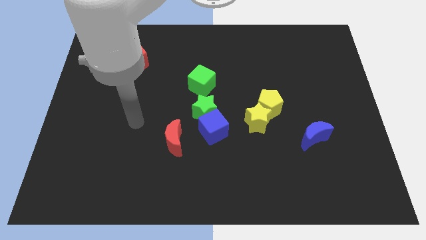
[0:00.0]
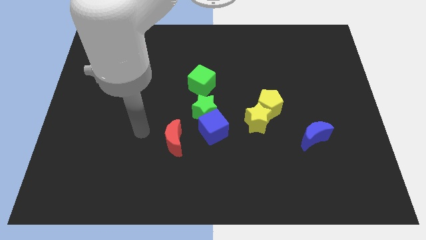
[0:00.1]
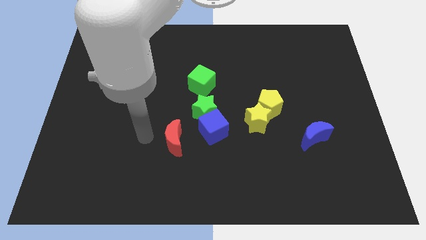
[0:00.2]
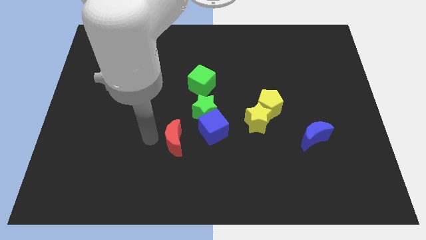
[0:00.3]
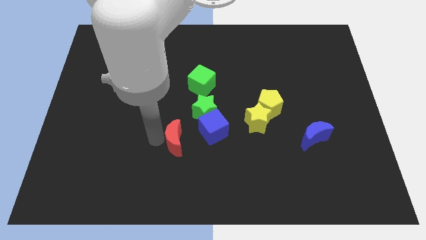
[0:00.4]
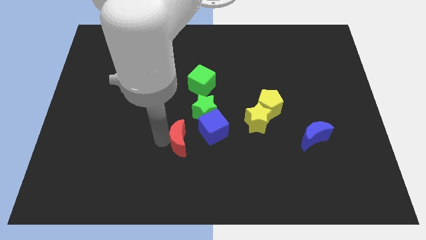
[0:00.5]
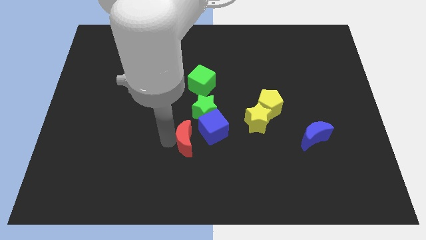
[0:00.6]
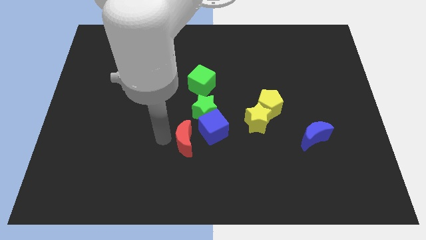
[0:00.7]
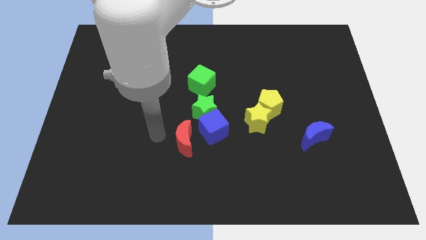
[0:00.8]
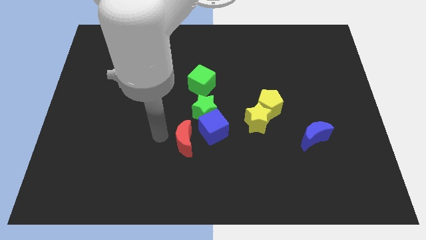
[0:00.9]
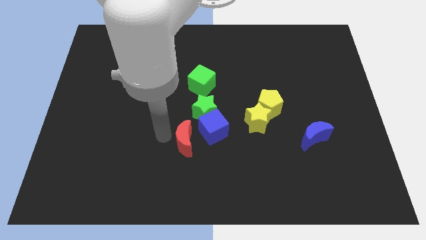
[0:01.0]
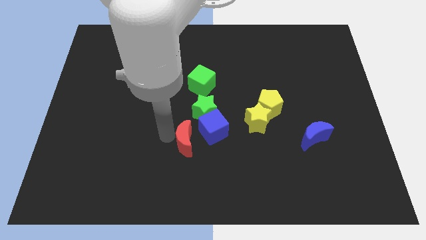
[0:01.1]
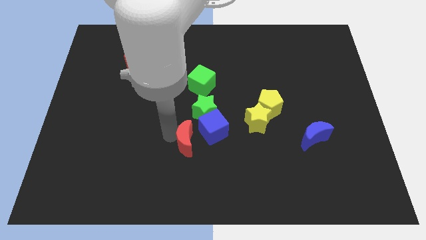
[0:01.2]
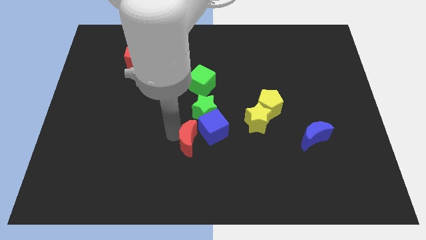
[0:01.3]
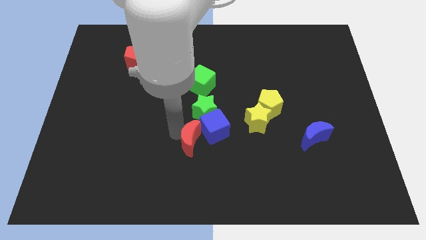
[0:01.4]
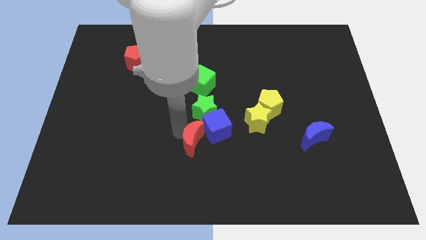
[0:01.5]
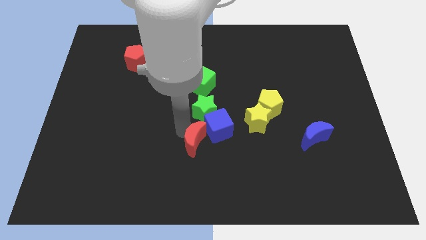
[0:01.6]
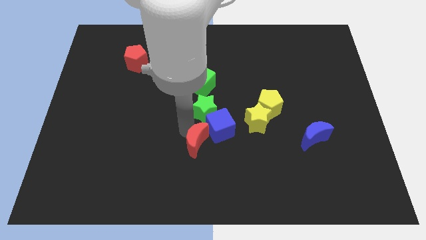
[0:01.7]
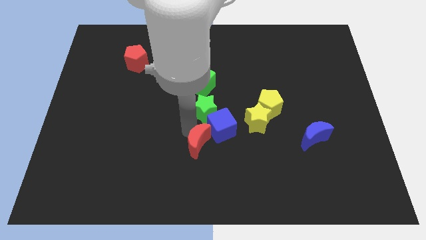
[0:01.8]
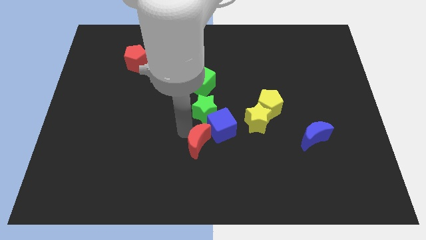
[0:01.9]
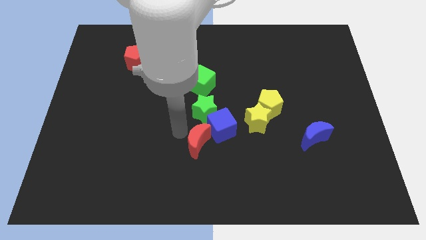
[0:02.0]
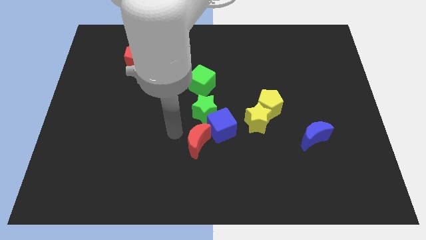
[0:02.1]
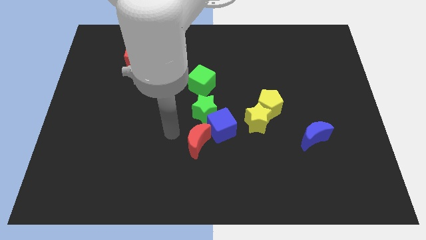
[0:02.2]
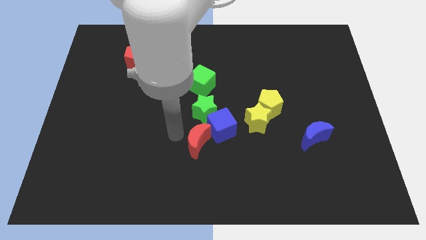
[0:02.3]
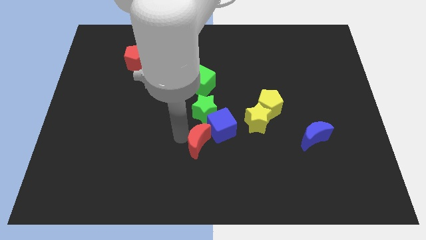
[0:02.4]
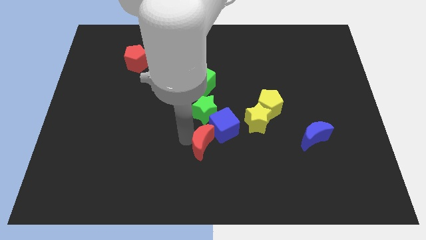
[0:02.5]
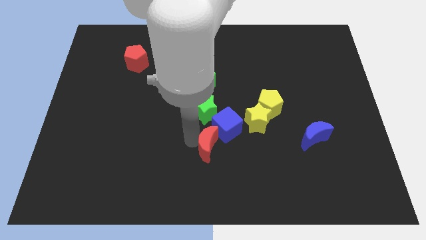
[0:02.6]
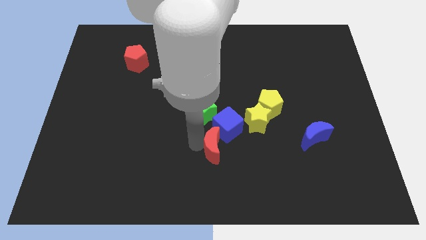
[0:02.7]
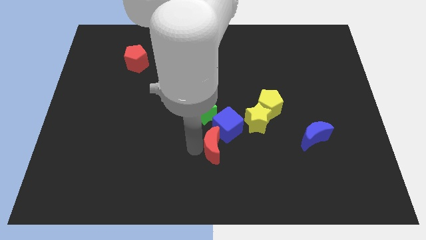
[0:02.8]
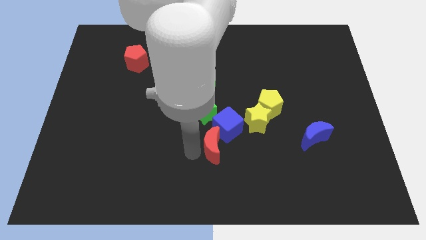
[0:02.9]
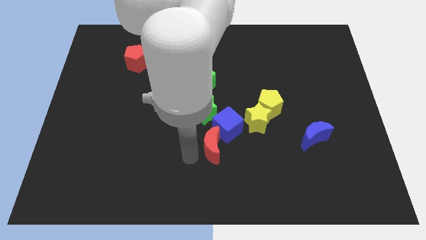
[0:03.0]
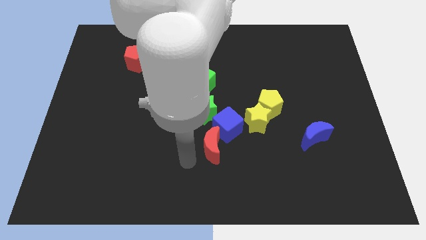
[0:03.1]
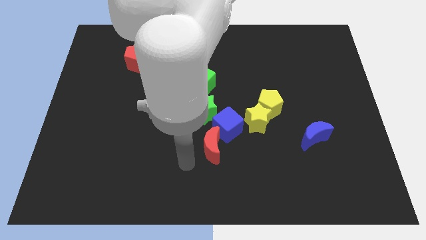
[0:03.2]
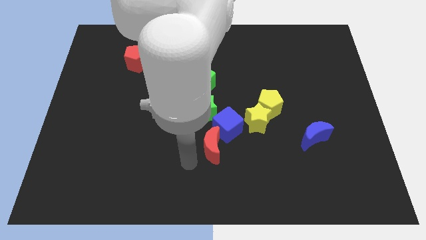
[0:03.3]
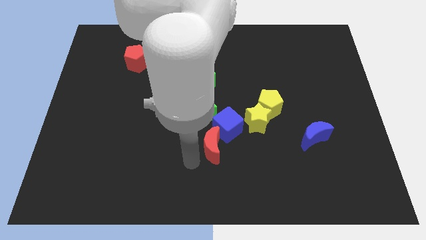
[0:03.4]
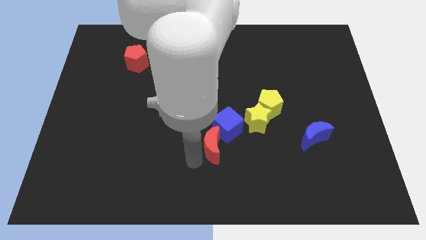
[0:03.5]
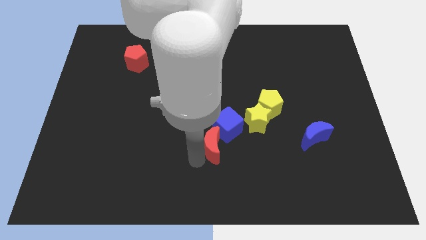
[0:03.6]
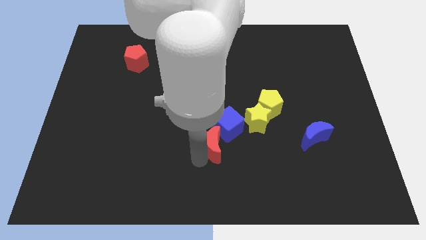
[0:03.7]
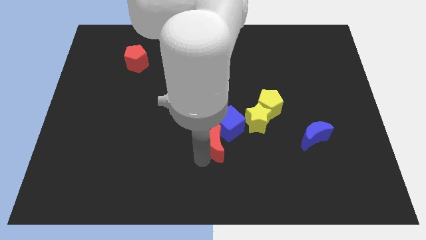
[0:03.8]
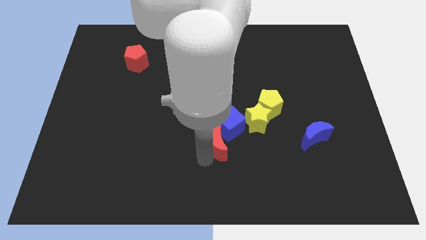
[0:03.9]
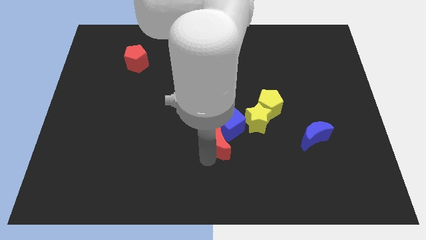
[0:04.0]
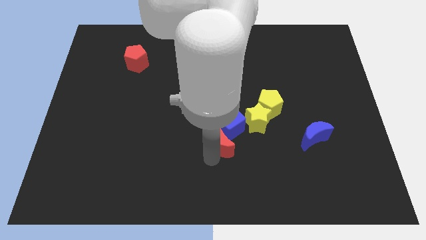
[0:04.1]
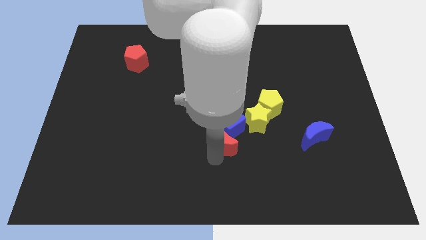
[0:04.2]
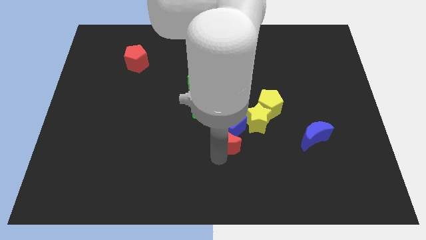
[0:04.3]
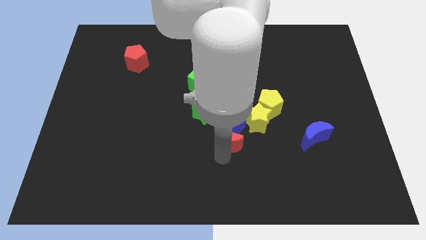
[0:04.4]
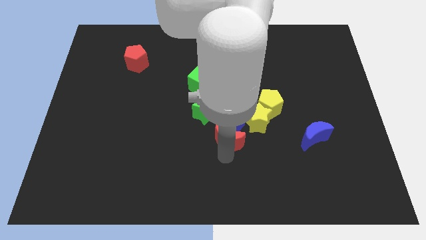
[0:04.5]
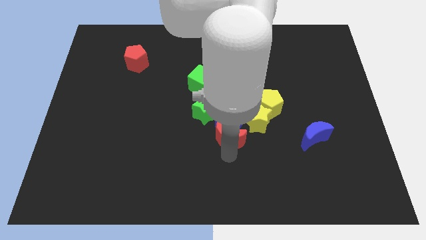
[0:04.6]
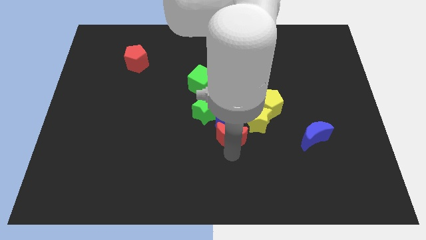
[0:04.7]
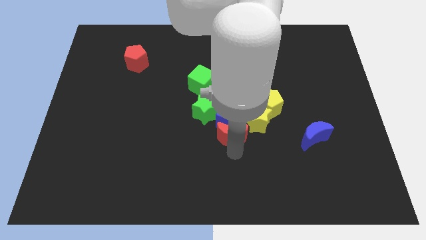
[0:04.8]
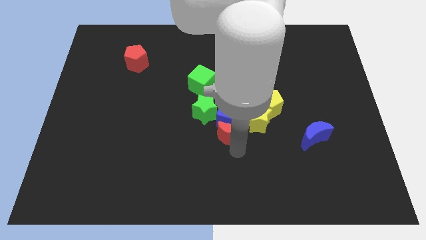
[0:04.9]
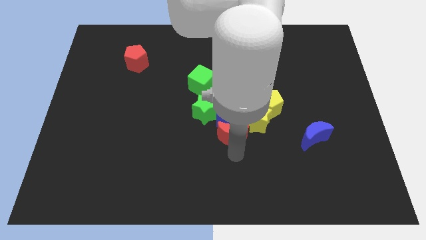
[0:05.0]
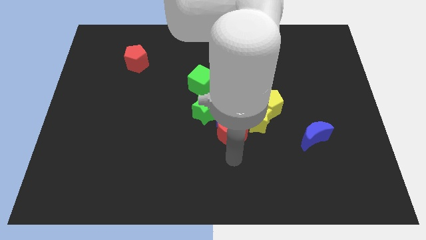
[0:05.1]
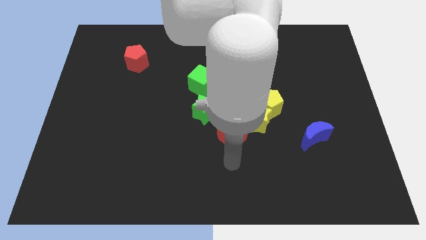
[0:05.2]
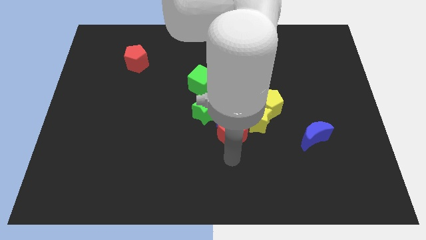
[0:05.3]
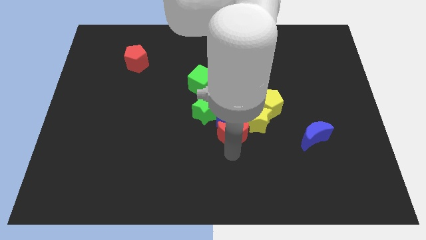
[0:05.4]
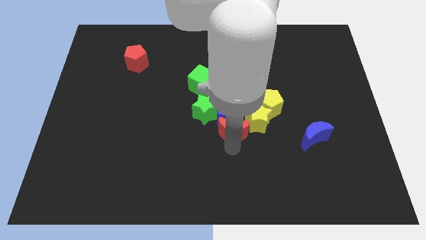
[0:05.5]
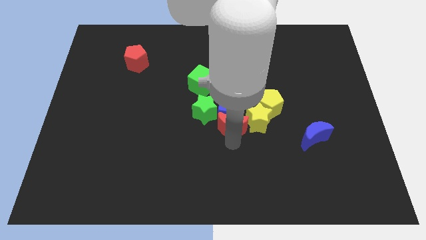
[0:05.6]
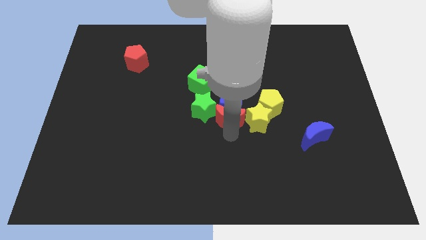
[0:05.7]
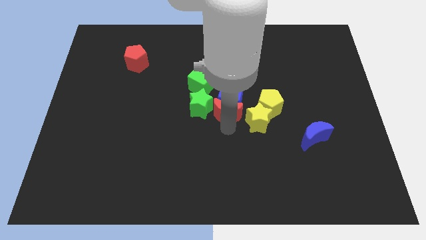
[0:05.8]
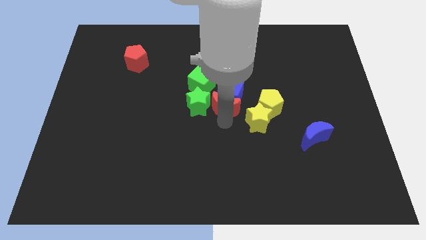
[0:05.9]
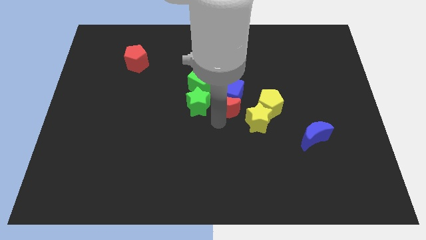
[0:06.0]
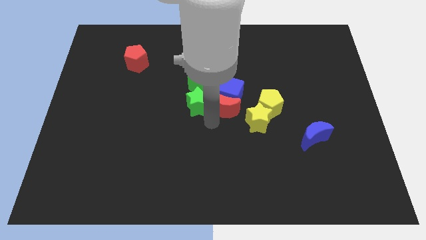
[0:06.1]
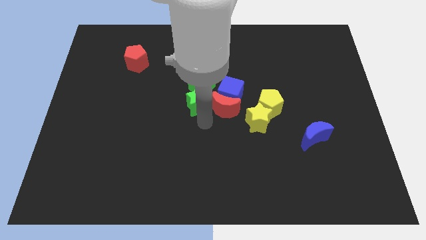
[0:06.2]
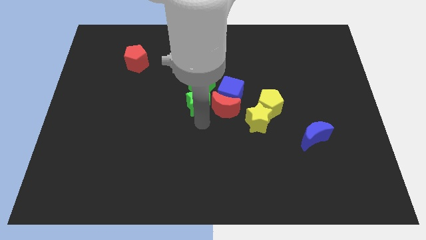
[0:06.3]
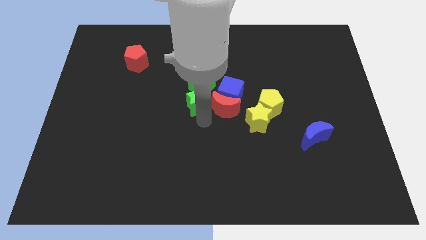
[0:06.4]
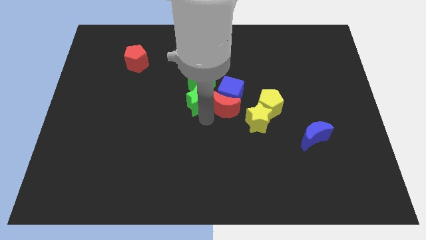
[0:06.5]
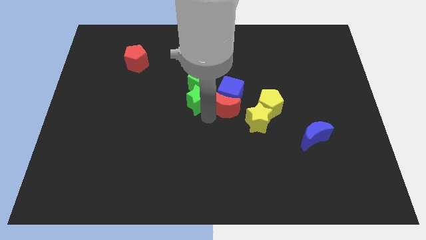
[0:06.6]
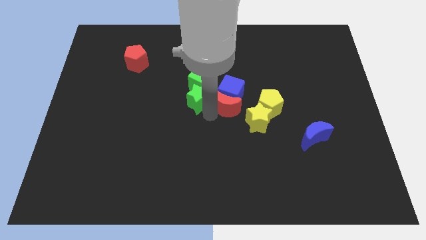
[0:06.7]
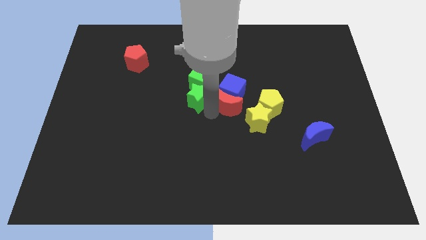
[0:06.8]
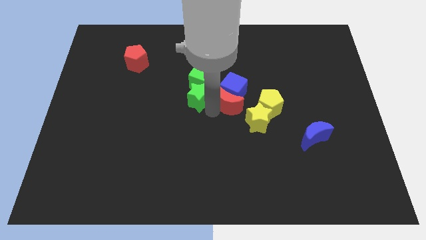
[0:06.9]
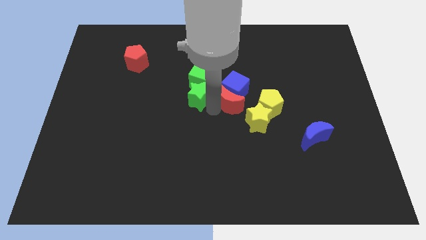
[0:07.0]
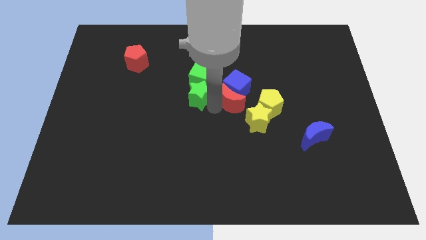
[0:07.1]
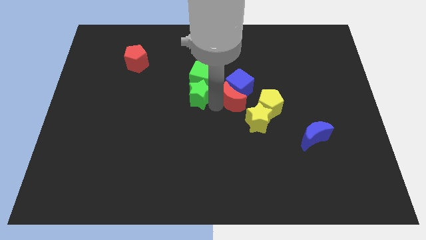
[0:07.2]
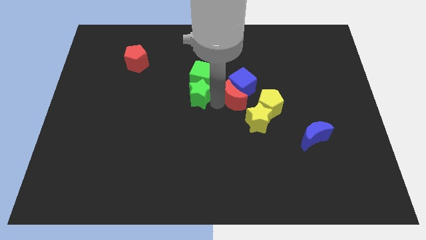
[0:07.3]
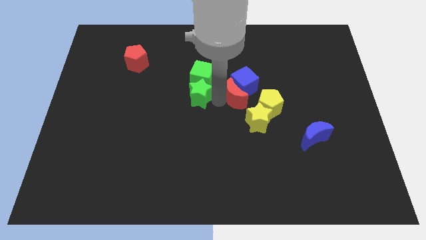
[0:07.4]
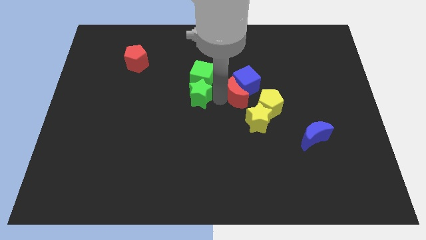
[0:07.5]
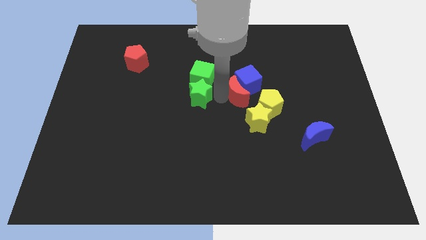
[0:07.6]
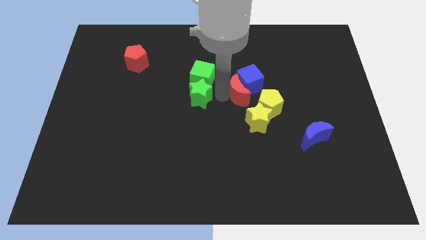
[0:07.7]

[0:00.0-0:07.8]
move the red moon up and to the right diagonally
